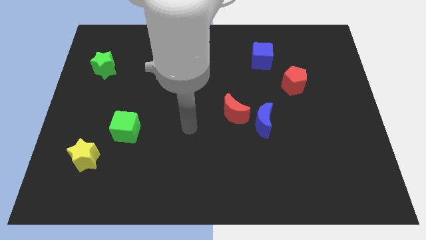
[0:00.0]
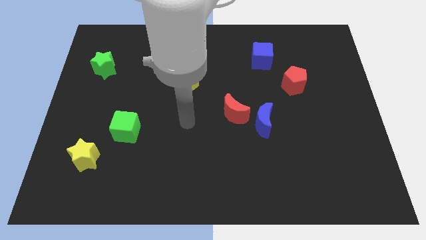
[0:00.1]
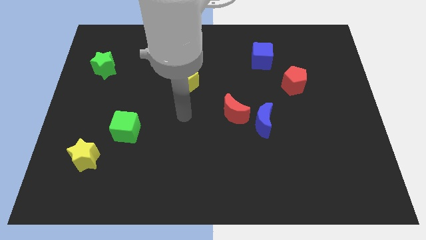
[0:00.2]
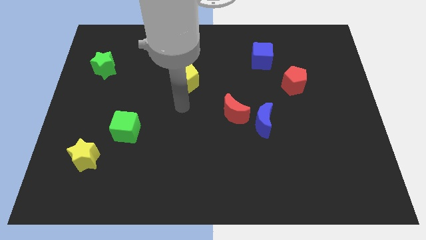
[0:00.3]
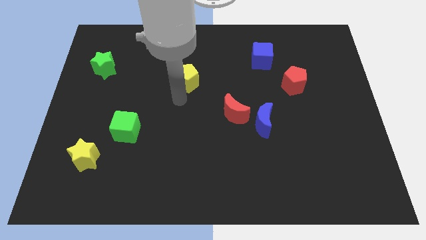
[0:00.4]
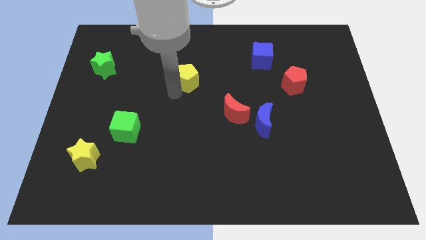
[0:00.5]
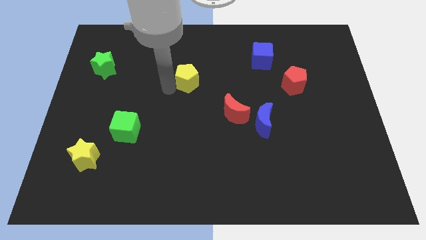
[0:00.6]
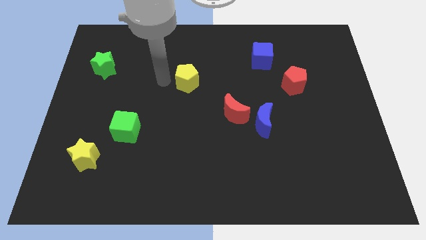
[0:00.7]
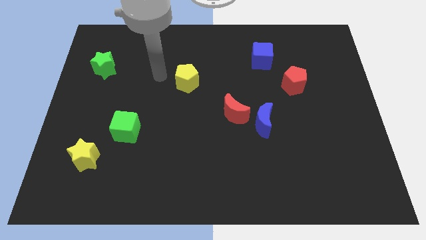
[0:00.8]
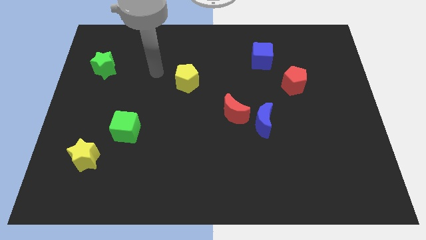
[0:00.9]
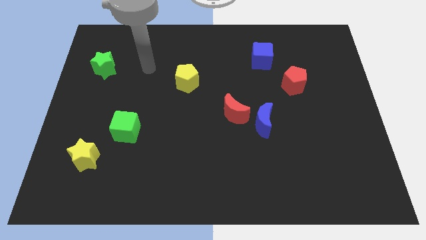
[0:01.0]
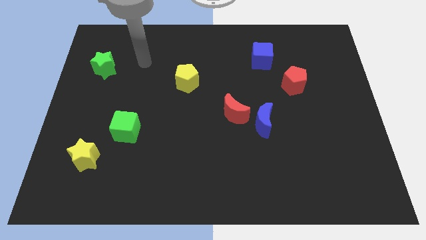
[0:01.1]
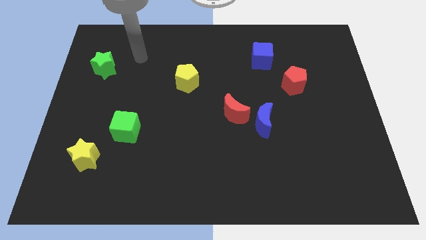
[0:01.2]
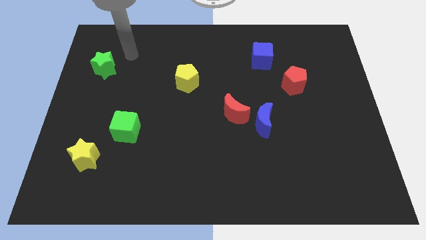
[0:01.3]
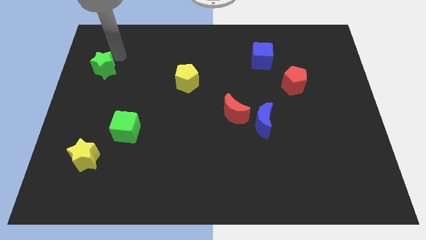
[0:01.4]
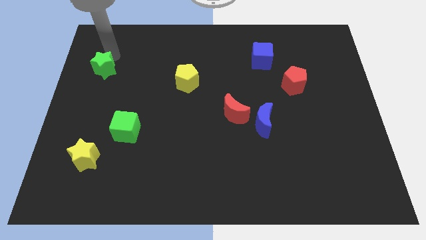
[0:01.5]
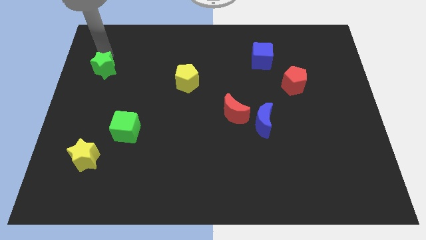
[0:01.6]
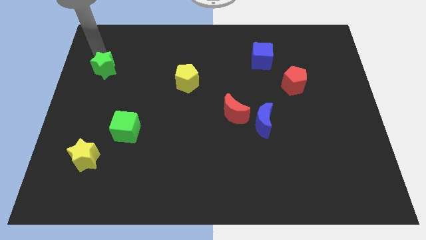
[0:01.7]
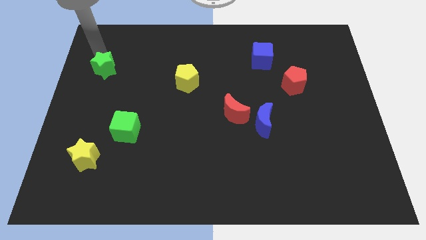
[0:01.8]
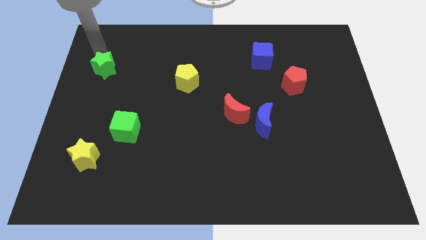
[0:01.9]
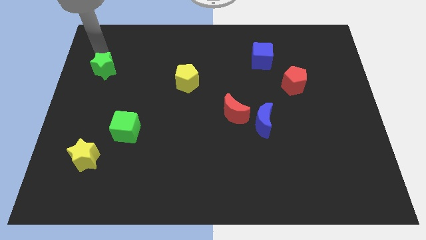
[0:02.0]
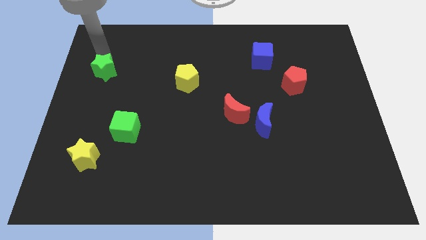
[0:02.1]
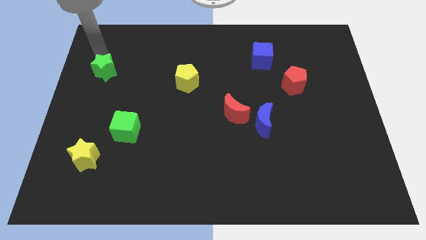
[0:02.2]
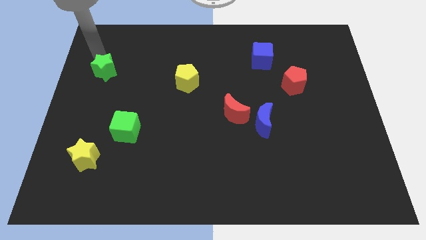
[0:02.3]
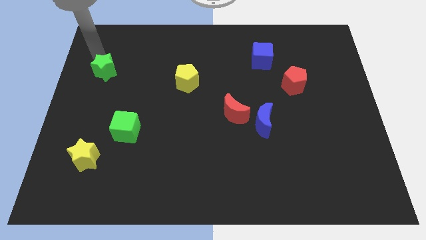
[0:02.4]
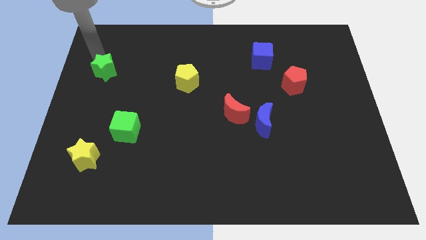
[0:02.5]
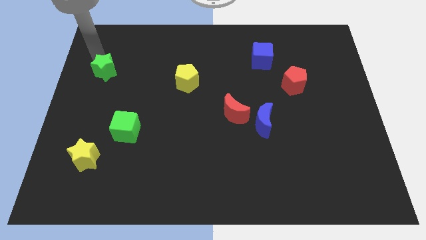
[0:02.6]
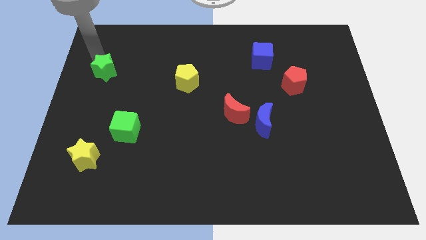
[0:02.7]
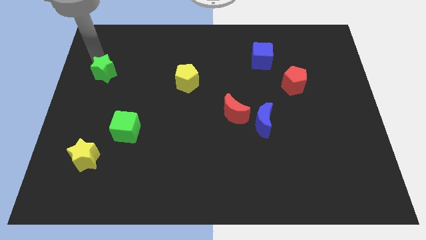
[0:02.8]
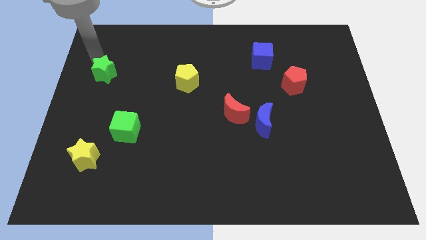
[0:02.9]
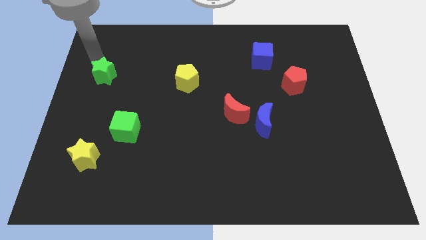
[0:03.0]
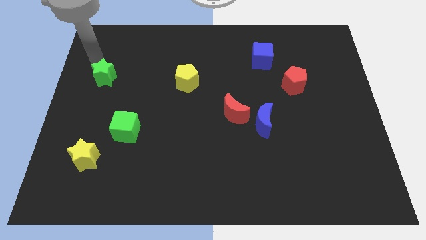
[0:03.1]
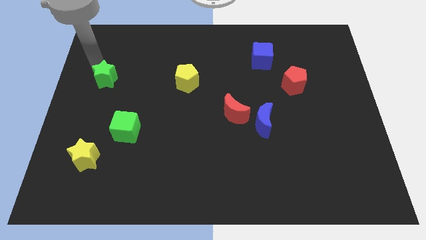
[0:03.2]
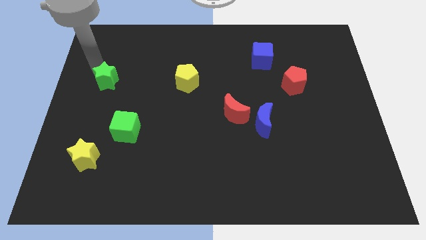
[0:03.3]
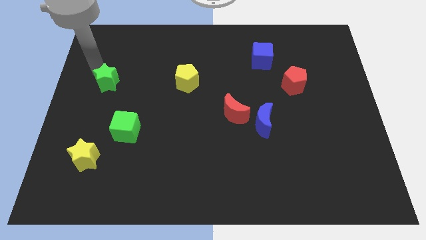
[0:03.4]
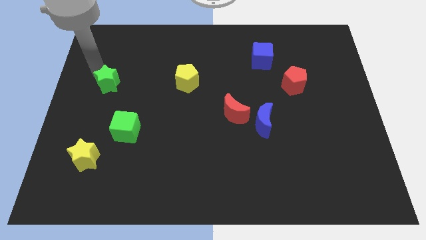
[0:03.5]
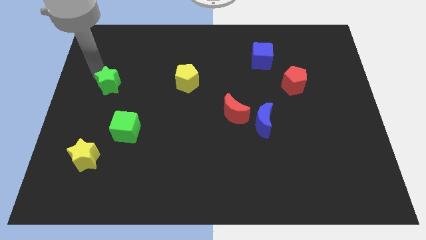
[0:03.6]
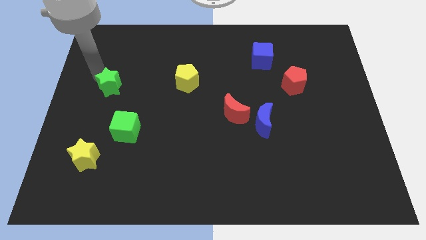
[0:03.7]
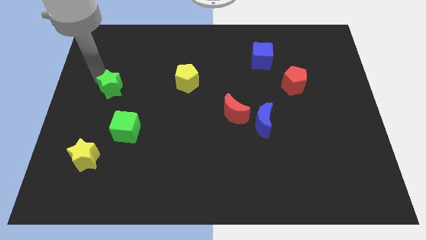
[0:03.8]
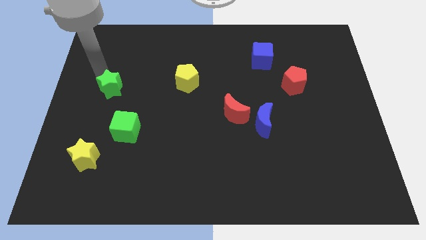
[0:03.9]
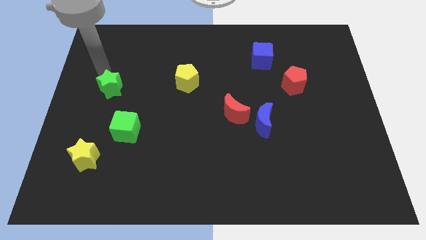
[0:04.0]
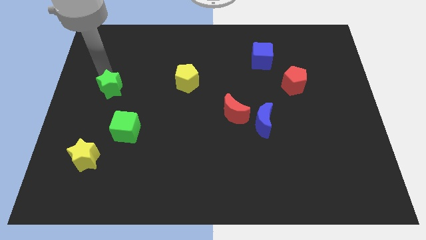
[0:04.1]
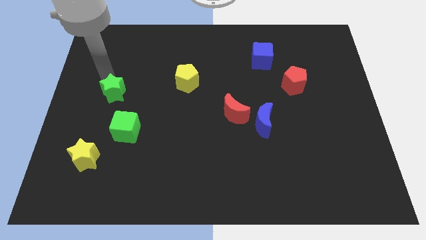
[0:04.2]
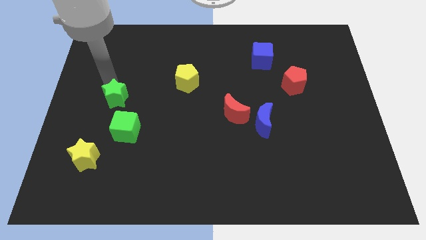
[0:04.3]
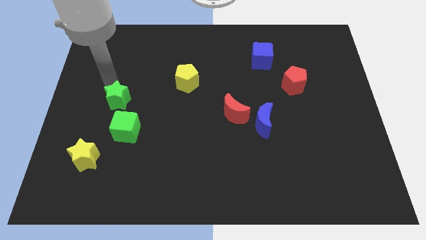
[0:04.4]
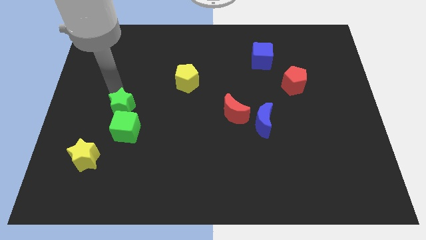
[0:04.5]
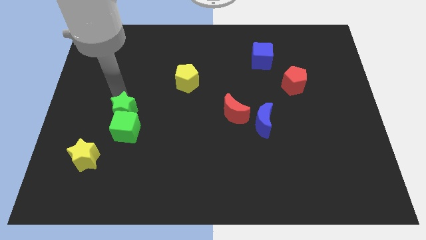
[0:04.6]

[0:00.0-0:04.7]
push the green star next to the green cube

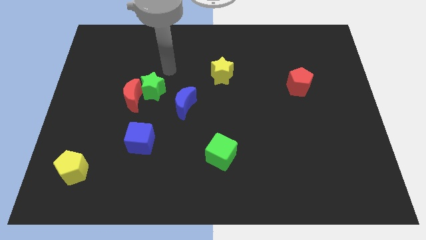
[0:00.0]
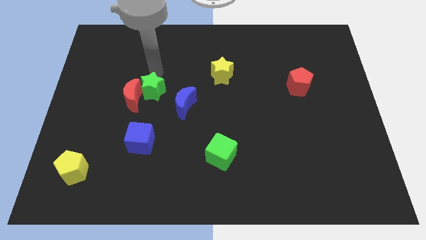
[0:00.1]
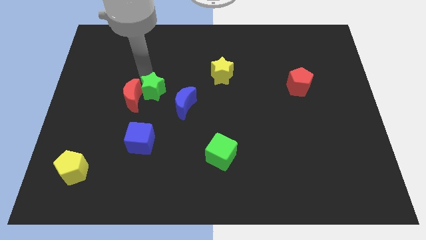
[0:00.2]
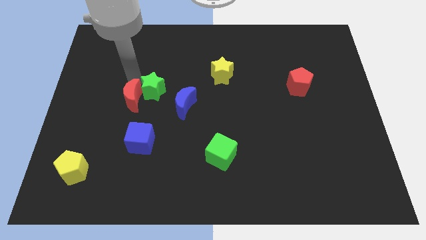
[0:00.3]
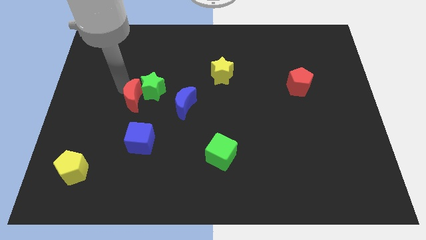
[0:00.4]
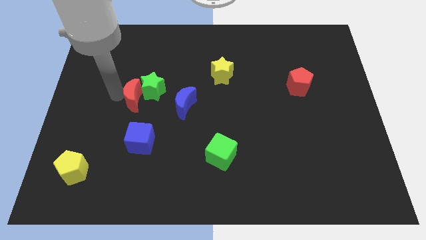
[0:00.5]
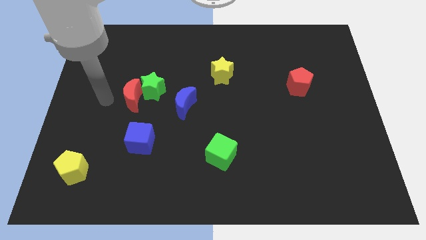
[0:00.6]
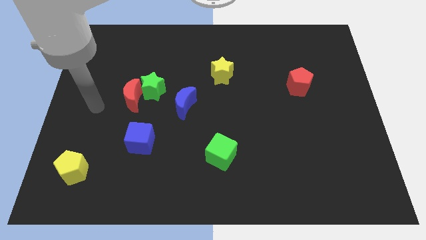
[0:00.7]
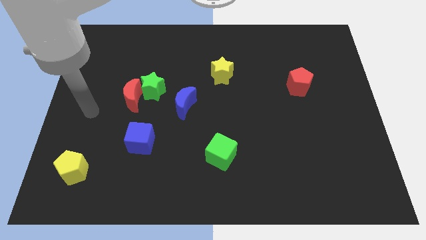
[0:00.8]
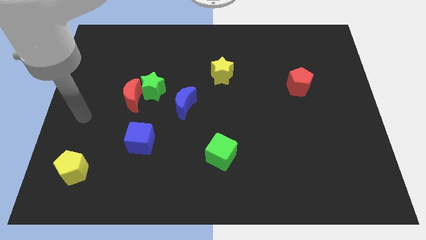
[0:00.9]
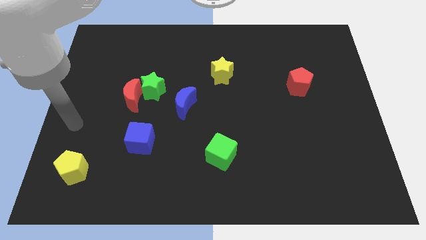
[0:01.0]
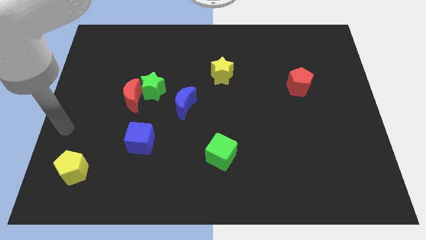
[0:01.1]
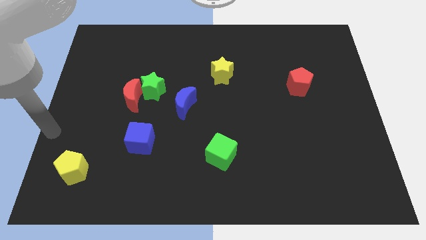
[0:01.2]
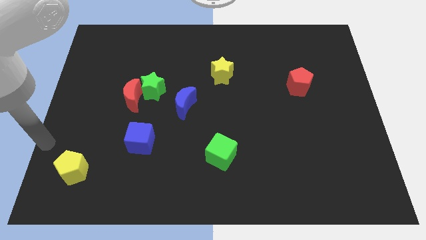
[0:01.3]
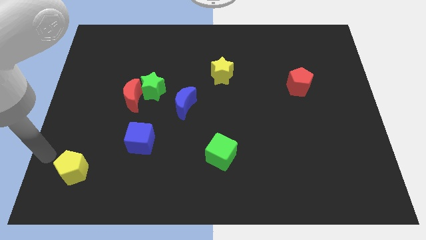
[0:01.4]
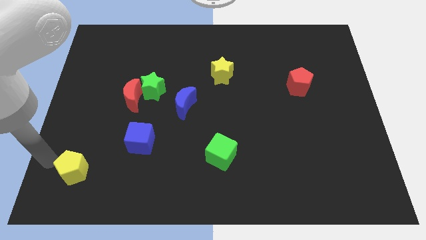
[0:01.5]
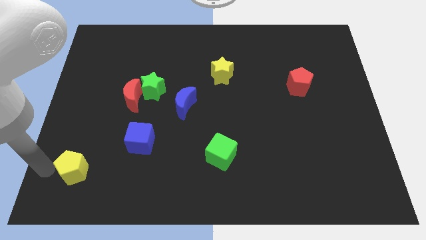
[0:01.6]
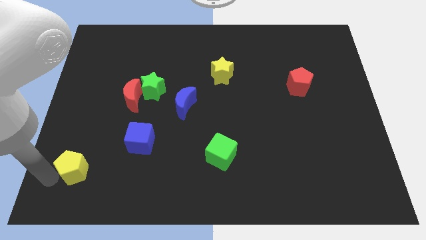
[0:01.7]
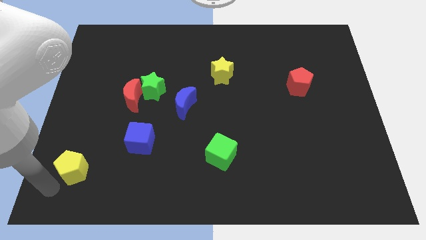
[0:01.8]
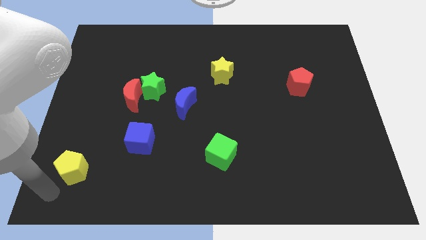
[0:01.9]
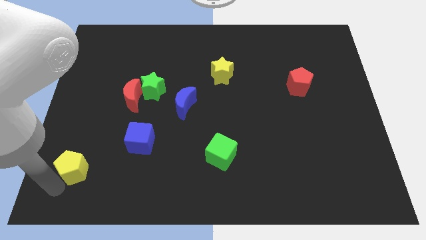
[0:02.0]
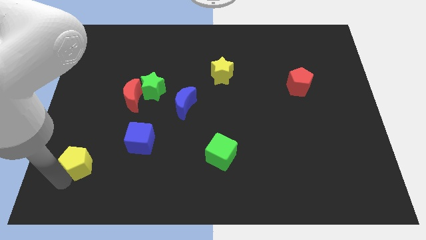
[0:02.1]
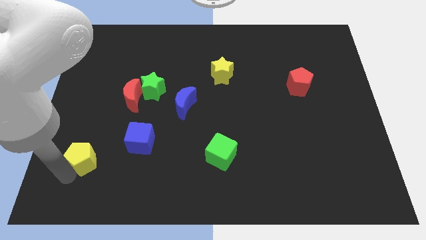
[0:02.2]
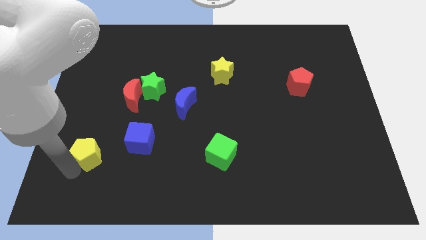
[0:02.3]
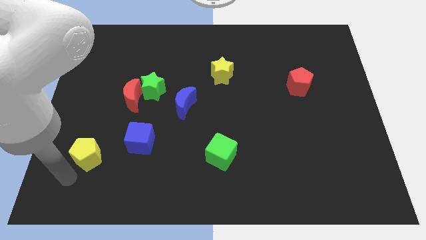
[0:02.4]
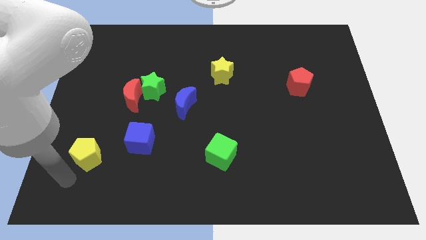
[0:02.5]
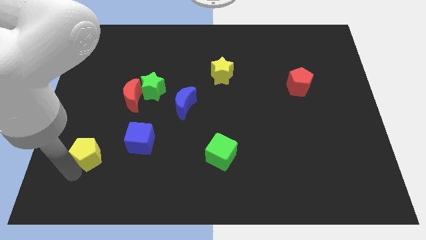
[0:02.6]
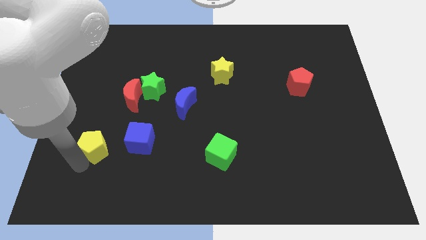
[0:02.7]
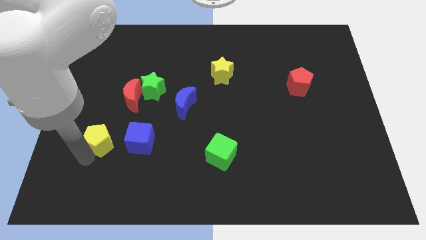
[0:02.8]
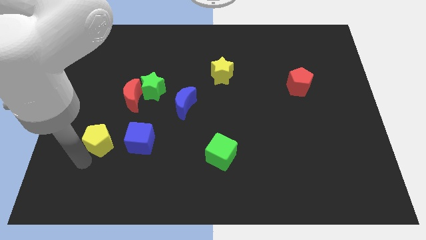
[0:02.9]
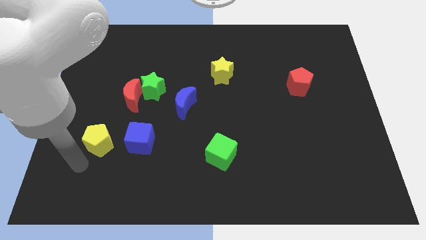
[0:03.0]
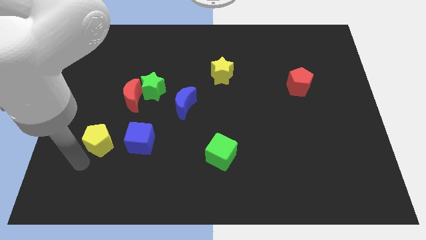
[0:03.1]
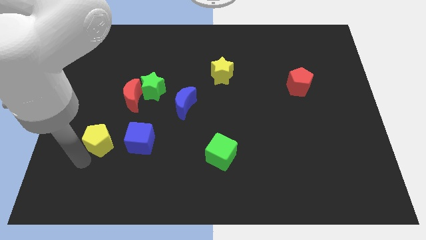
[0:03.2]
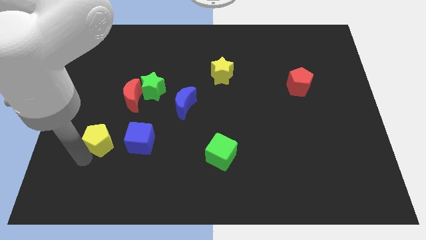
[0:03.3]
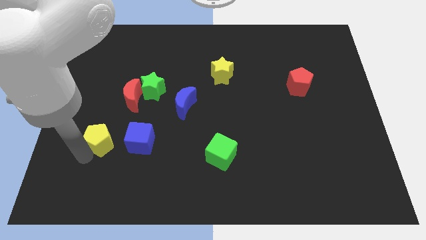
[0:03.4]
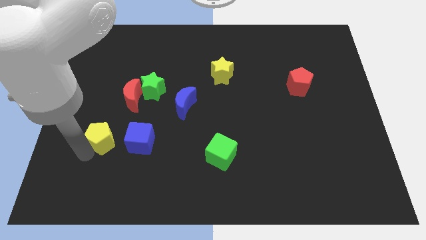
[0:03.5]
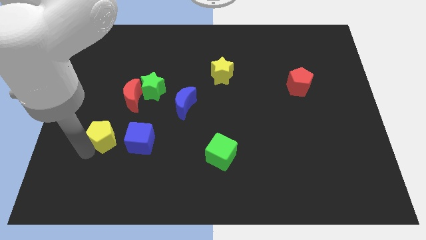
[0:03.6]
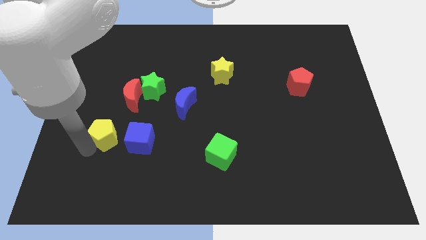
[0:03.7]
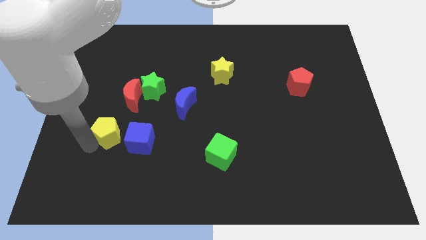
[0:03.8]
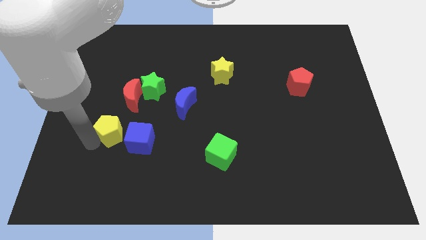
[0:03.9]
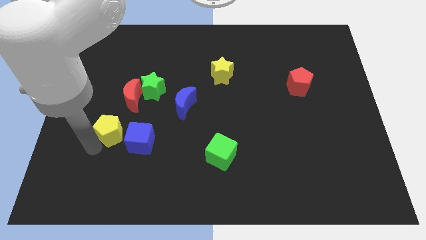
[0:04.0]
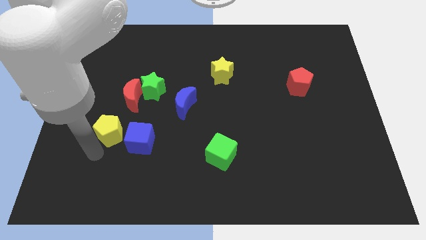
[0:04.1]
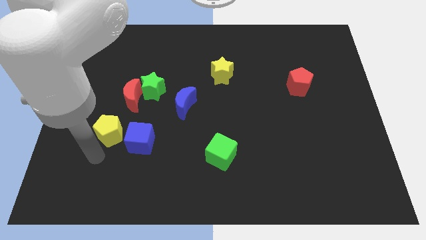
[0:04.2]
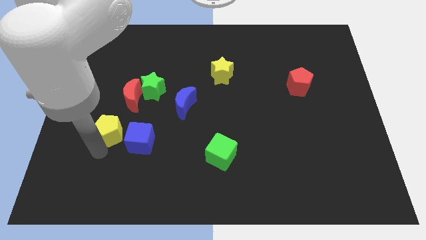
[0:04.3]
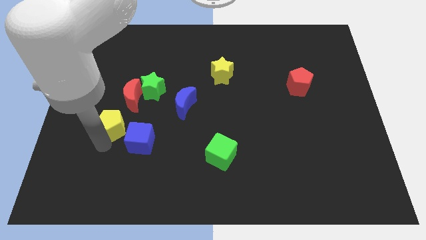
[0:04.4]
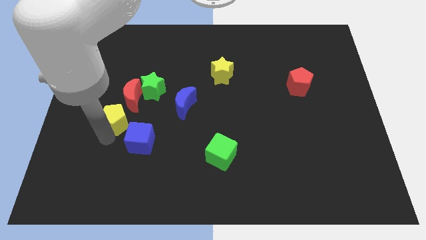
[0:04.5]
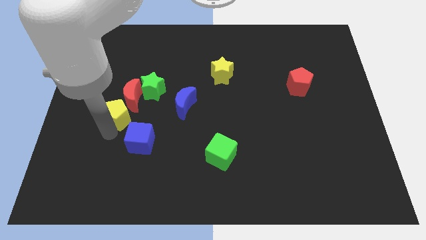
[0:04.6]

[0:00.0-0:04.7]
push the yellow pentagon next to the red moon
